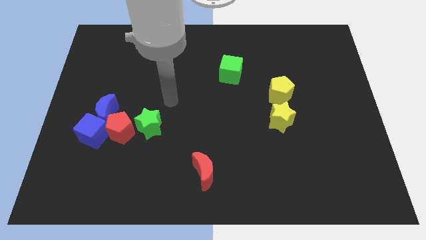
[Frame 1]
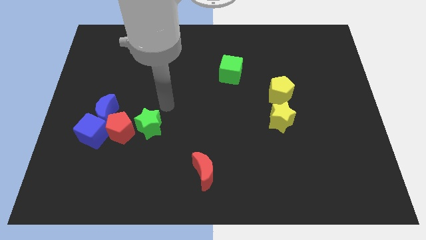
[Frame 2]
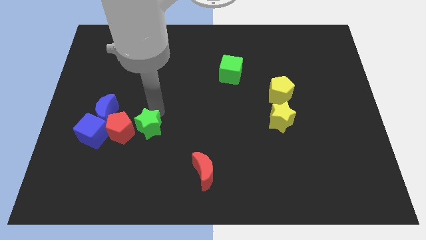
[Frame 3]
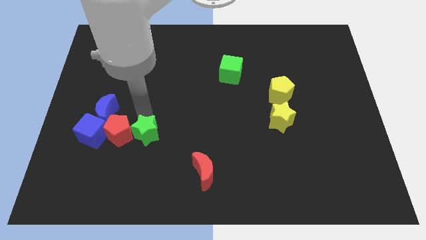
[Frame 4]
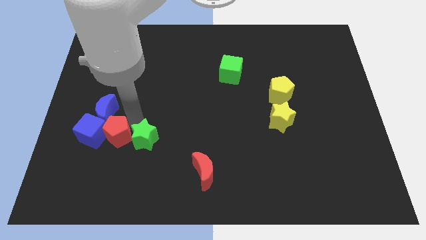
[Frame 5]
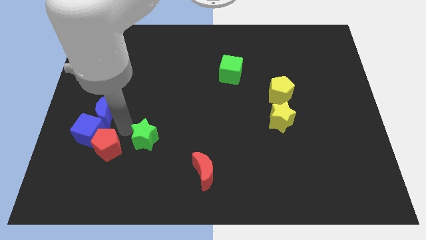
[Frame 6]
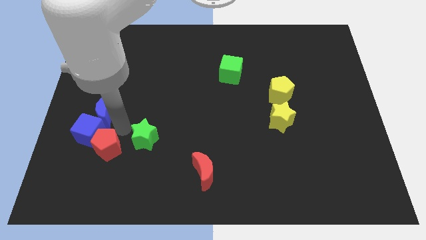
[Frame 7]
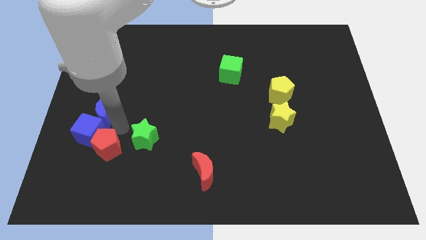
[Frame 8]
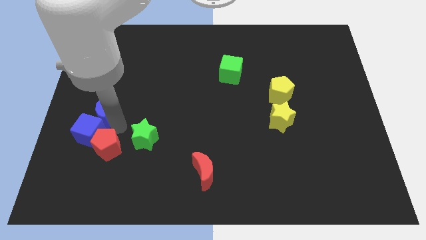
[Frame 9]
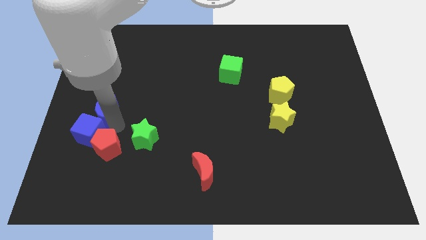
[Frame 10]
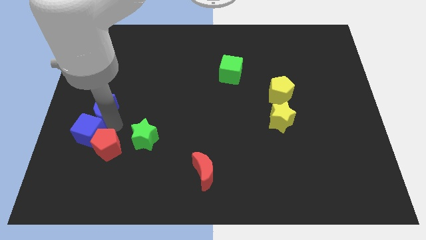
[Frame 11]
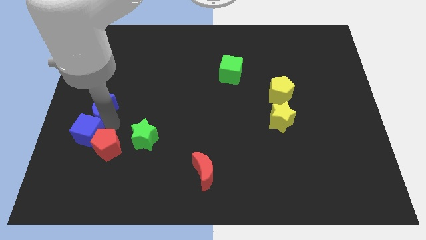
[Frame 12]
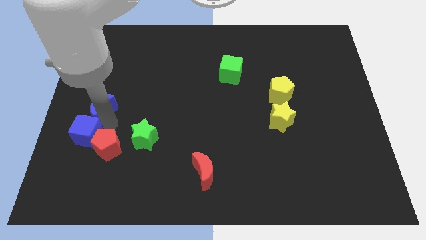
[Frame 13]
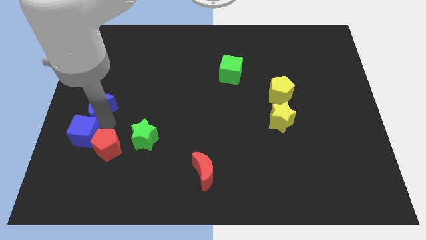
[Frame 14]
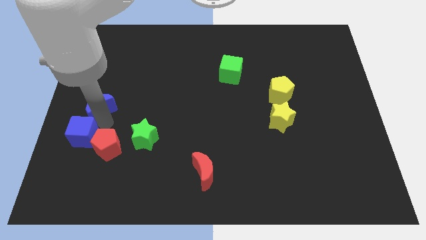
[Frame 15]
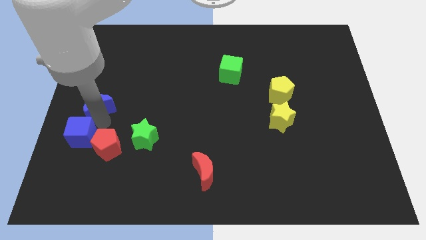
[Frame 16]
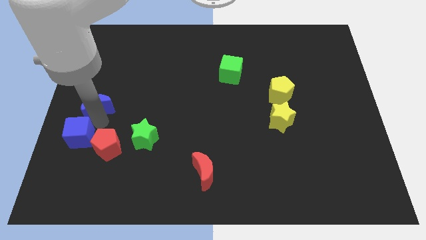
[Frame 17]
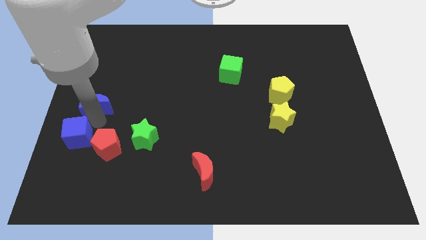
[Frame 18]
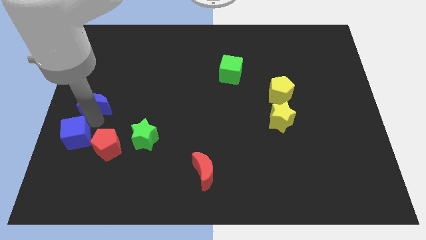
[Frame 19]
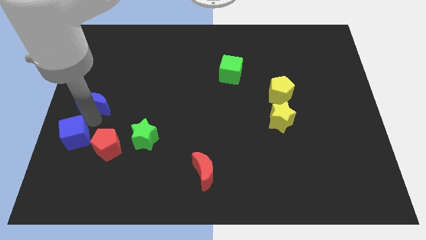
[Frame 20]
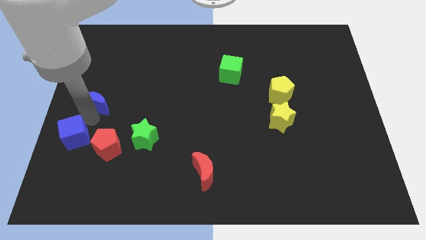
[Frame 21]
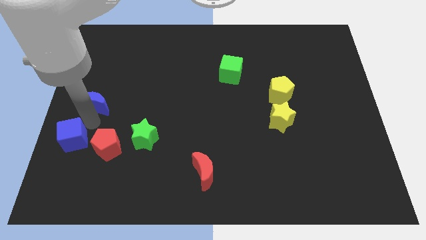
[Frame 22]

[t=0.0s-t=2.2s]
separate the blue moon from the blue cube and red pentagon

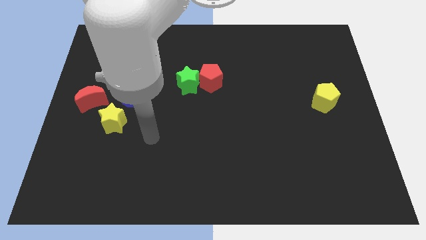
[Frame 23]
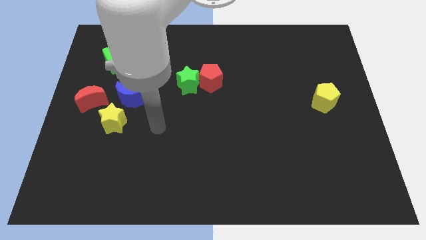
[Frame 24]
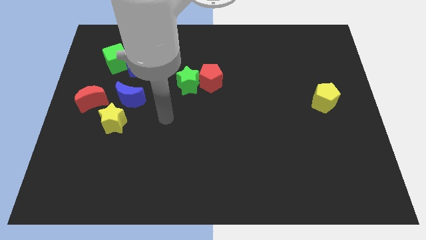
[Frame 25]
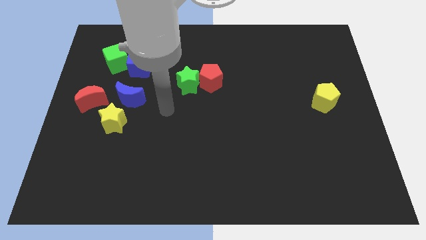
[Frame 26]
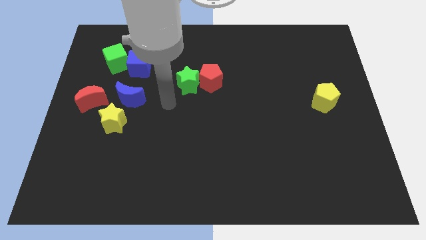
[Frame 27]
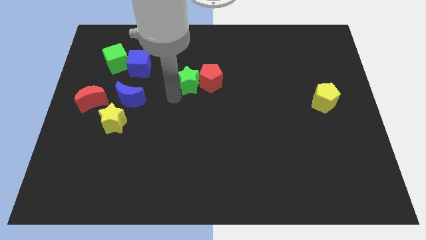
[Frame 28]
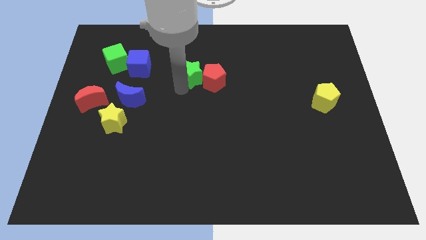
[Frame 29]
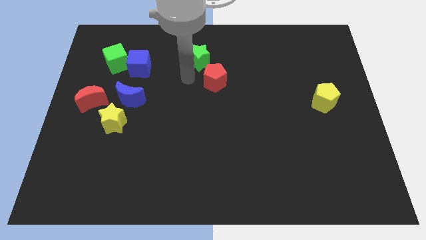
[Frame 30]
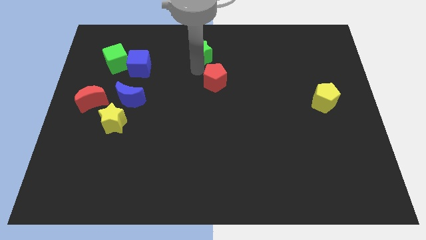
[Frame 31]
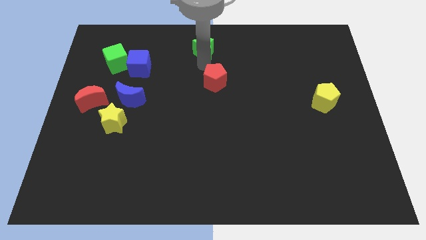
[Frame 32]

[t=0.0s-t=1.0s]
move the red pentagon away from the green star

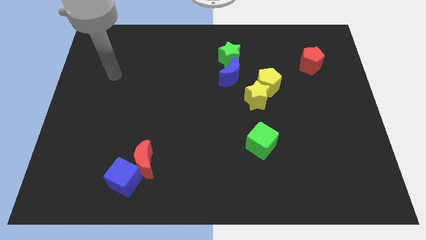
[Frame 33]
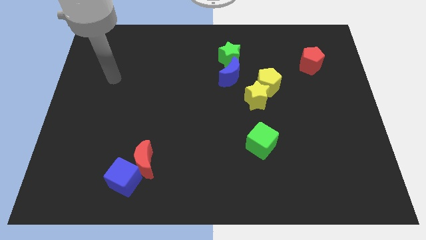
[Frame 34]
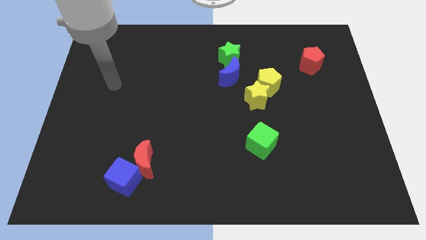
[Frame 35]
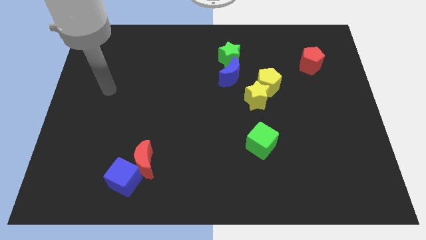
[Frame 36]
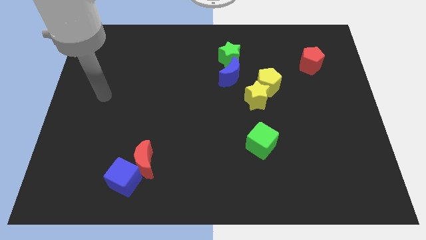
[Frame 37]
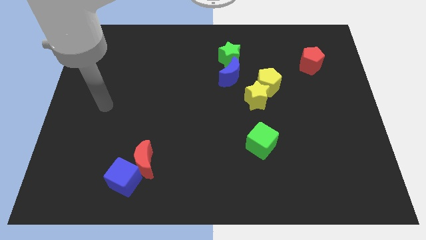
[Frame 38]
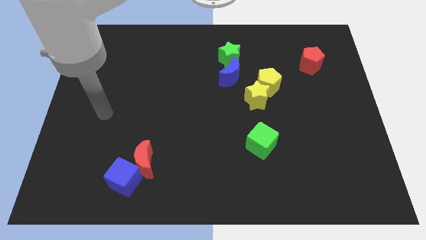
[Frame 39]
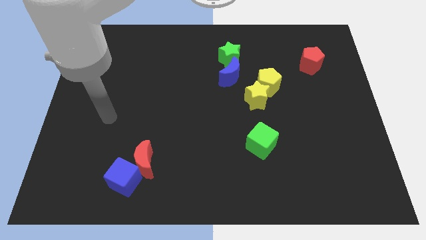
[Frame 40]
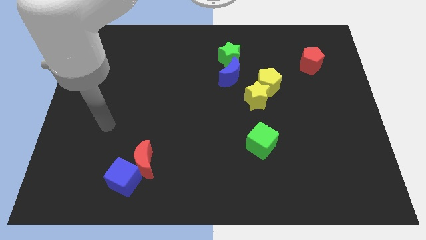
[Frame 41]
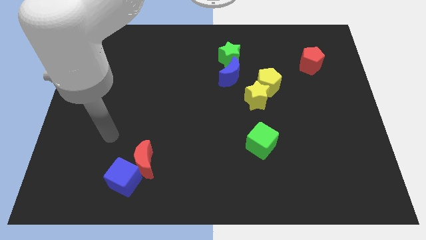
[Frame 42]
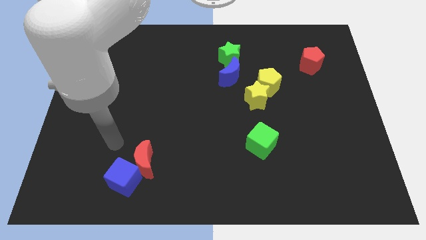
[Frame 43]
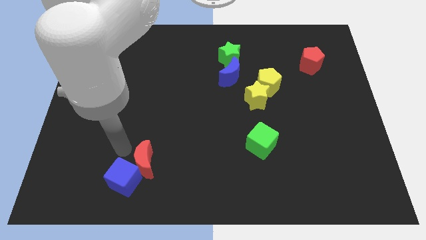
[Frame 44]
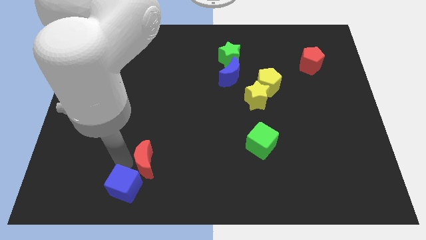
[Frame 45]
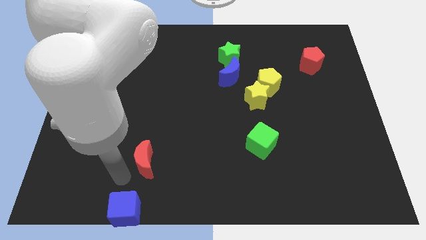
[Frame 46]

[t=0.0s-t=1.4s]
separate the red moon from the blue cube

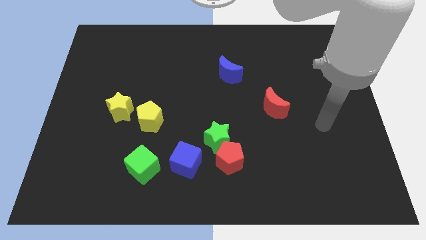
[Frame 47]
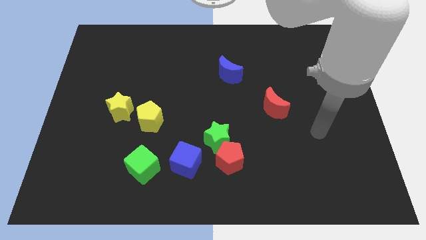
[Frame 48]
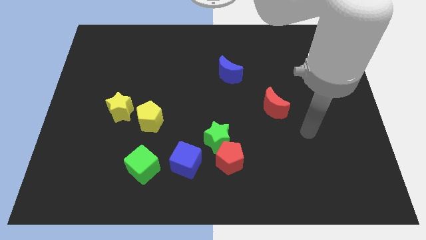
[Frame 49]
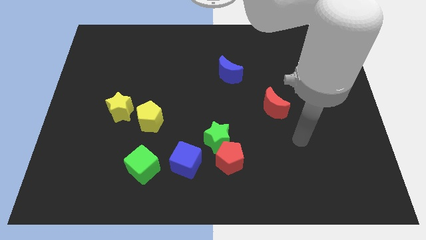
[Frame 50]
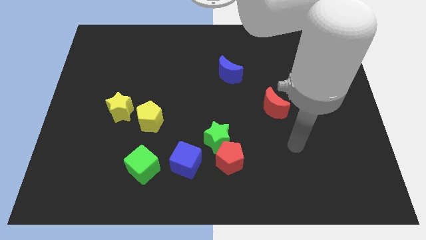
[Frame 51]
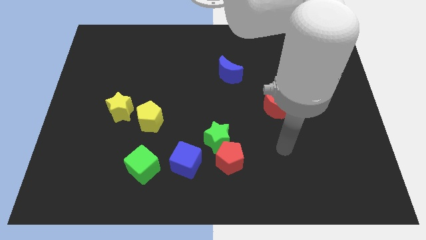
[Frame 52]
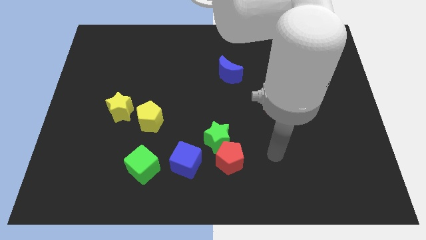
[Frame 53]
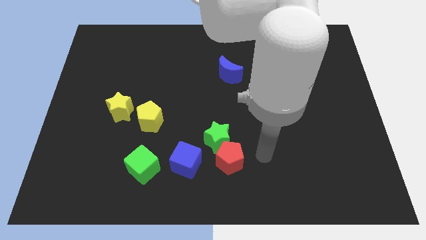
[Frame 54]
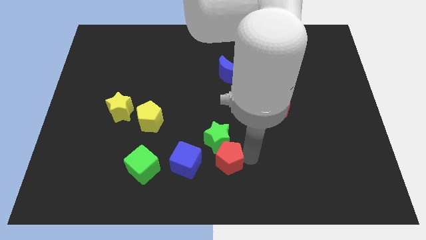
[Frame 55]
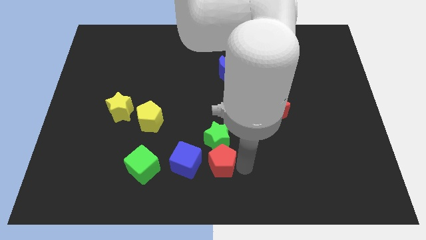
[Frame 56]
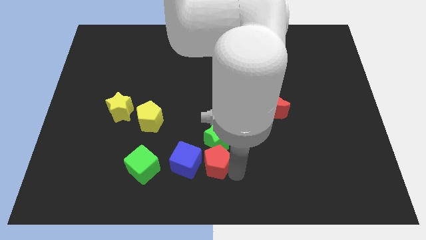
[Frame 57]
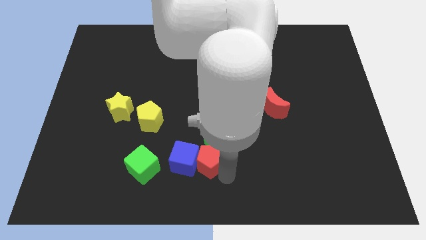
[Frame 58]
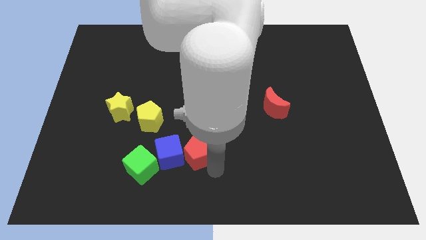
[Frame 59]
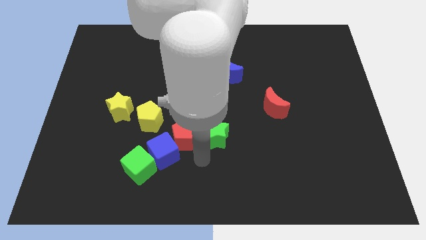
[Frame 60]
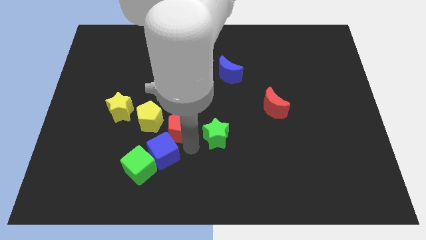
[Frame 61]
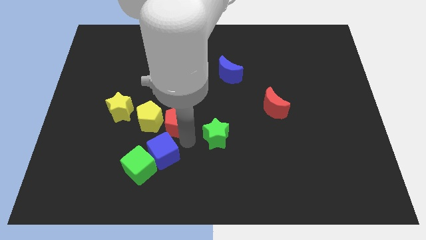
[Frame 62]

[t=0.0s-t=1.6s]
separate the green star from the red pentagon and blue cube

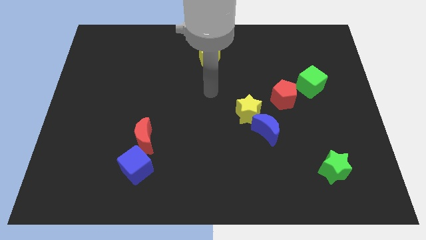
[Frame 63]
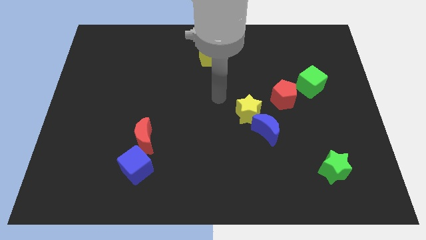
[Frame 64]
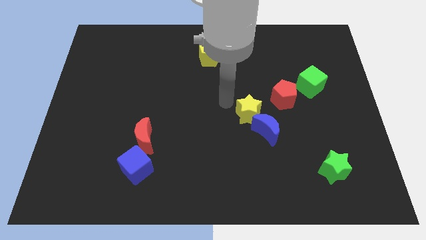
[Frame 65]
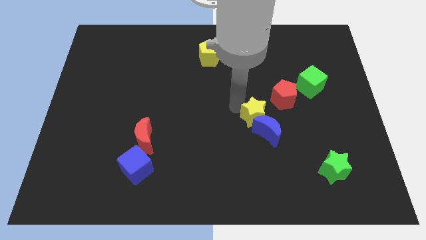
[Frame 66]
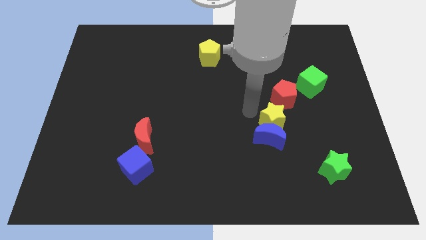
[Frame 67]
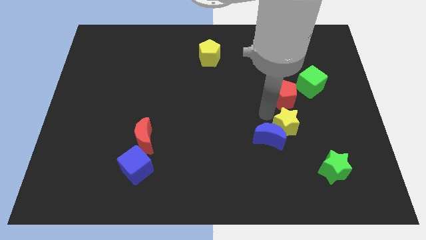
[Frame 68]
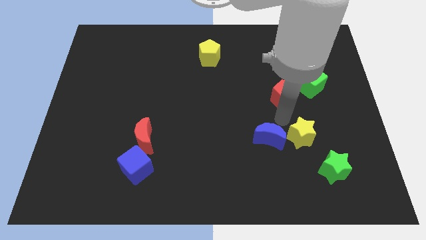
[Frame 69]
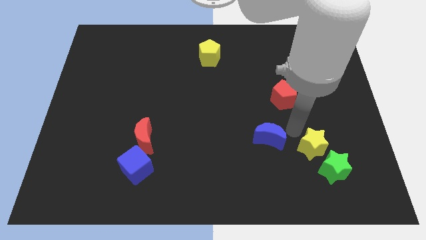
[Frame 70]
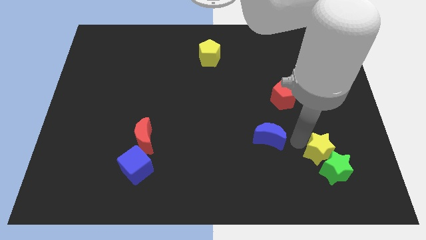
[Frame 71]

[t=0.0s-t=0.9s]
separate the blue moon from the yellow star

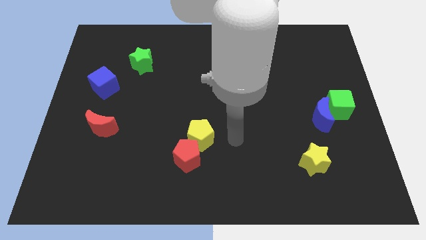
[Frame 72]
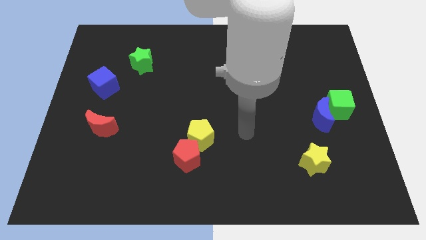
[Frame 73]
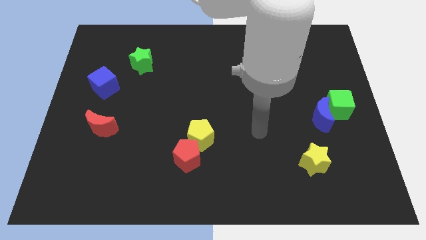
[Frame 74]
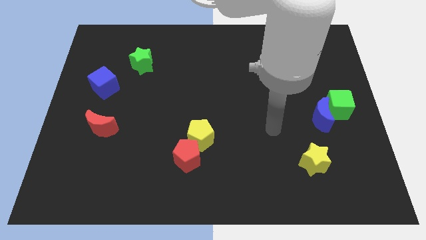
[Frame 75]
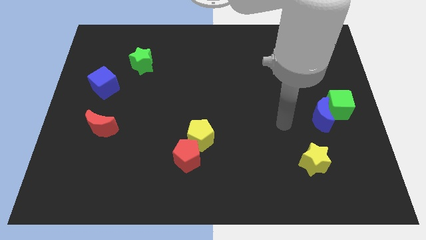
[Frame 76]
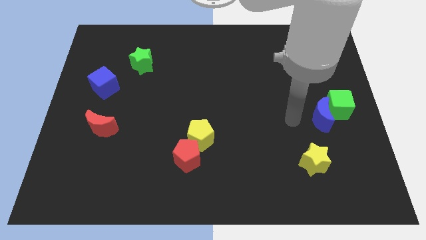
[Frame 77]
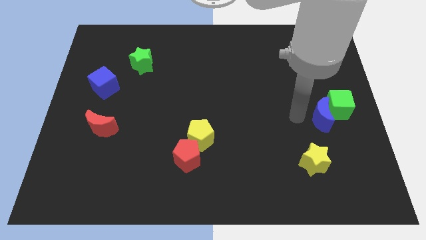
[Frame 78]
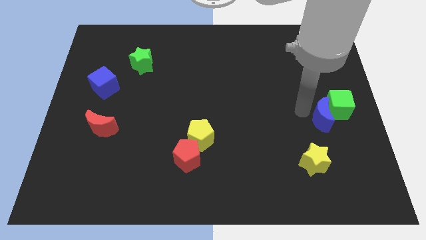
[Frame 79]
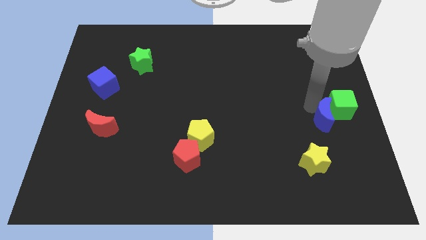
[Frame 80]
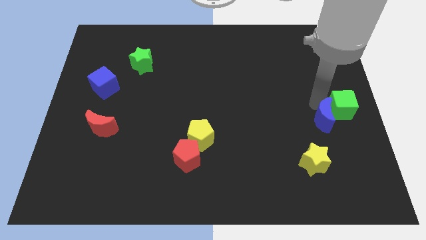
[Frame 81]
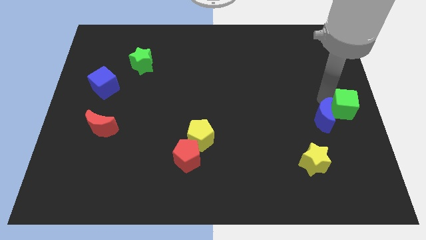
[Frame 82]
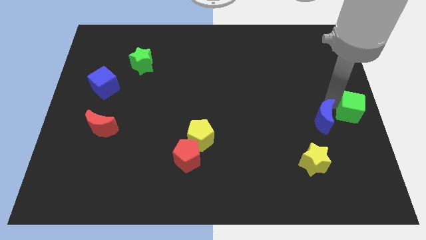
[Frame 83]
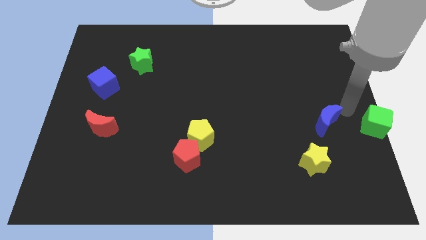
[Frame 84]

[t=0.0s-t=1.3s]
pull the blue moon apart from the green cube

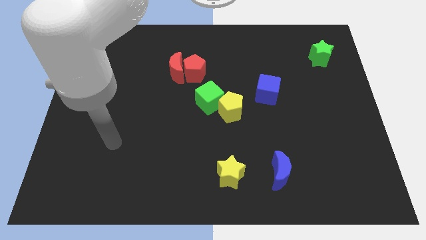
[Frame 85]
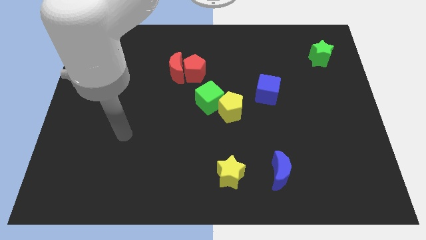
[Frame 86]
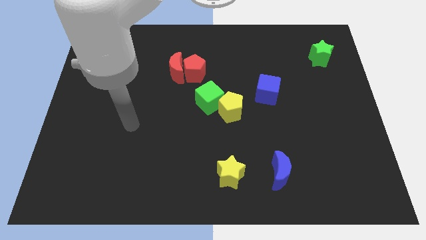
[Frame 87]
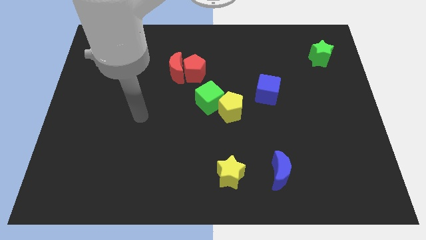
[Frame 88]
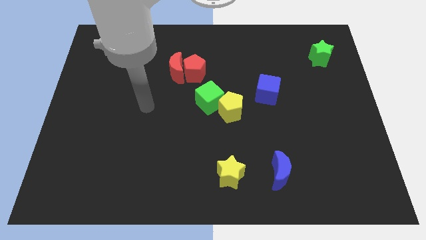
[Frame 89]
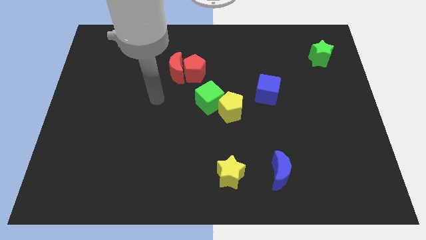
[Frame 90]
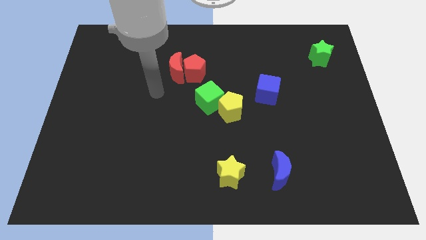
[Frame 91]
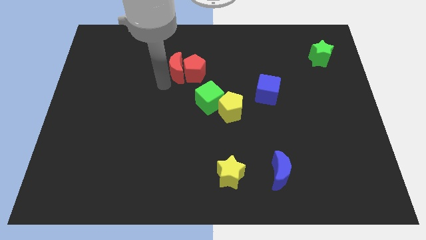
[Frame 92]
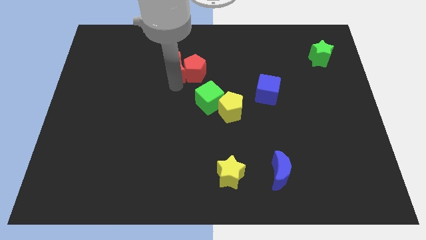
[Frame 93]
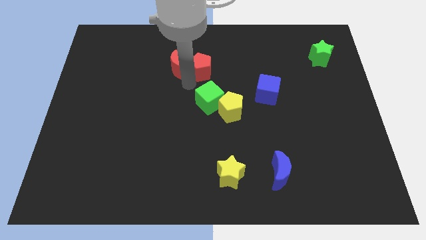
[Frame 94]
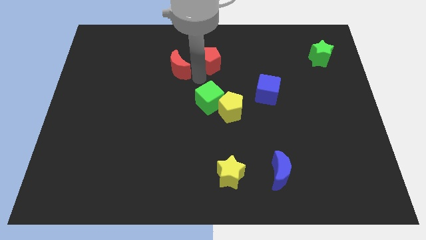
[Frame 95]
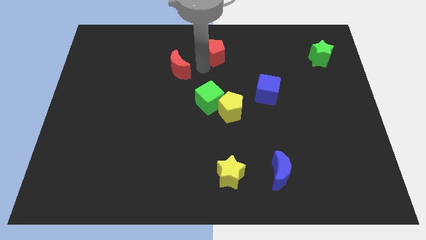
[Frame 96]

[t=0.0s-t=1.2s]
pull the red moon apart from the red pentagon
